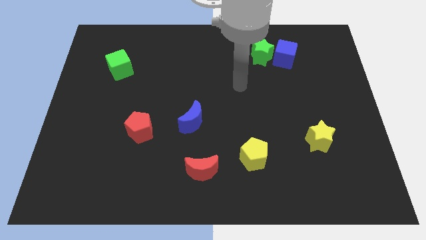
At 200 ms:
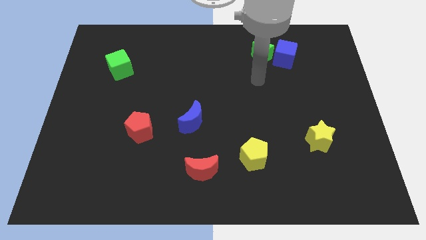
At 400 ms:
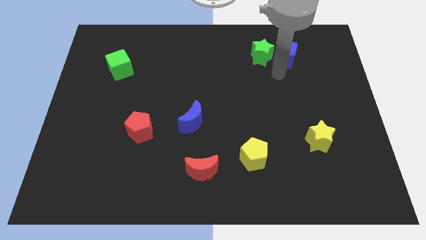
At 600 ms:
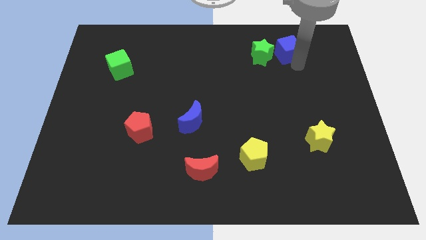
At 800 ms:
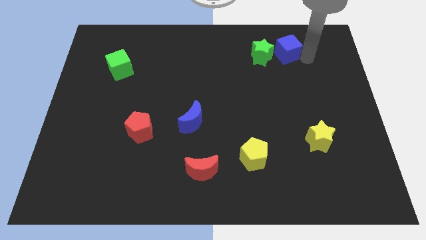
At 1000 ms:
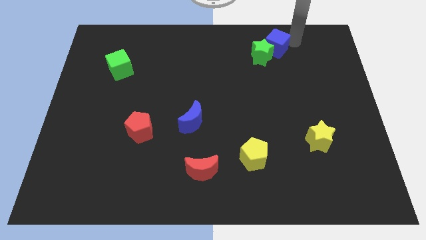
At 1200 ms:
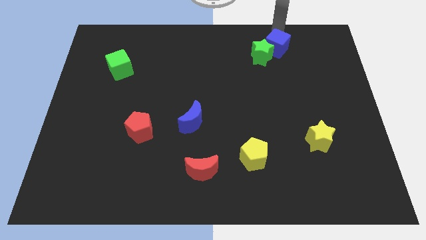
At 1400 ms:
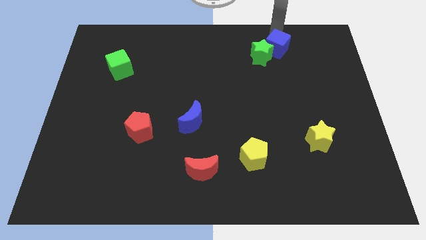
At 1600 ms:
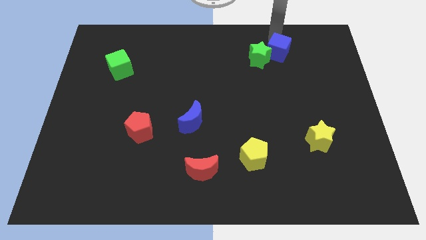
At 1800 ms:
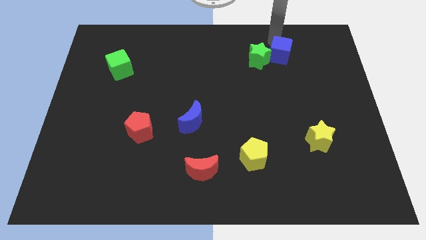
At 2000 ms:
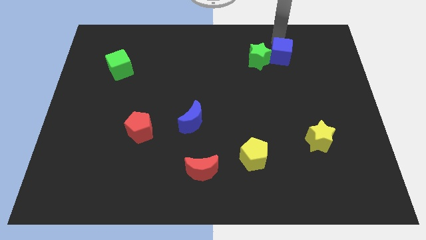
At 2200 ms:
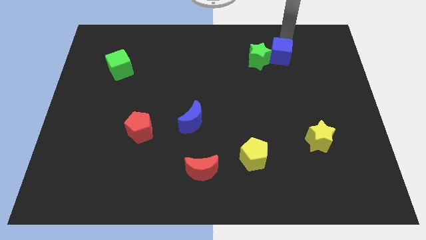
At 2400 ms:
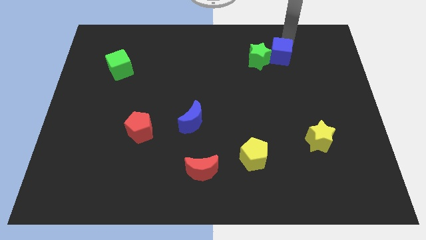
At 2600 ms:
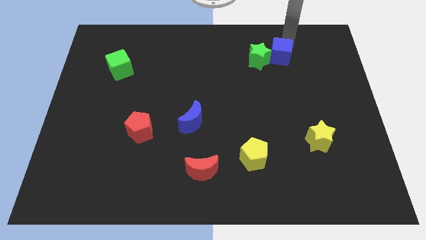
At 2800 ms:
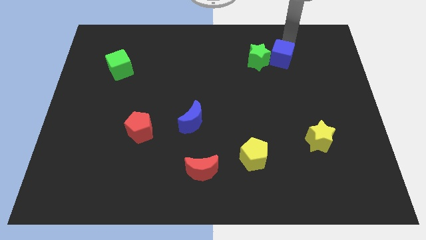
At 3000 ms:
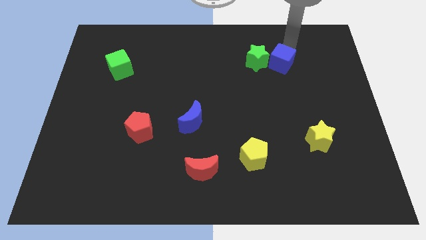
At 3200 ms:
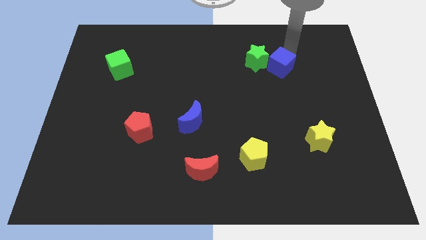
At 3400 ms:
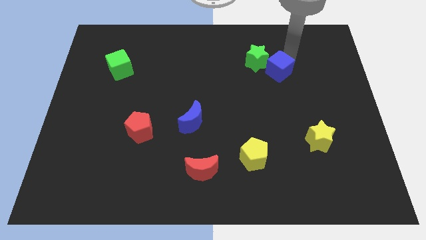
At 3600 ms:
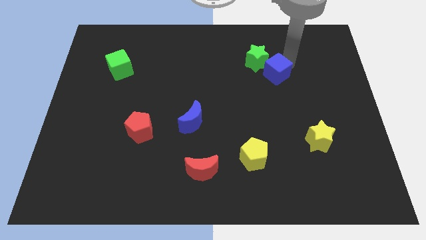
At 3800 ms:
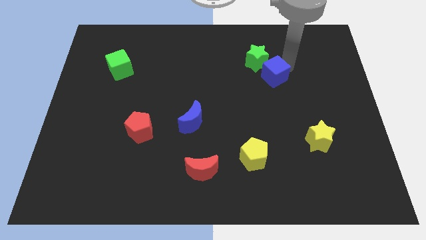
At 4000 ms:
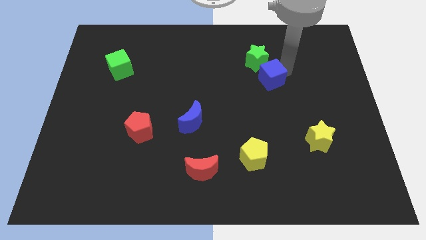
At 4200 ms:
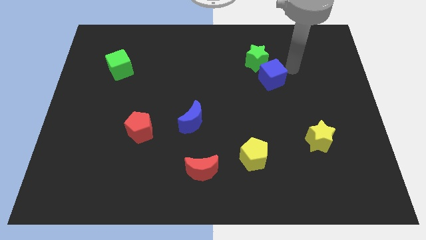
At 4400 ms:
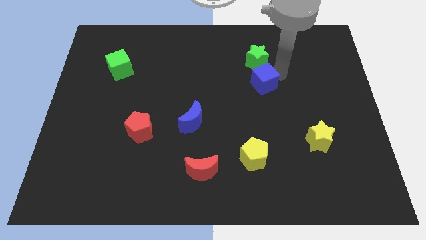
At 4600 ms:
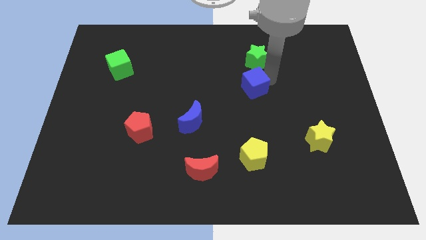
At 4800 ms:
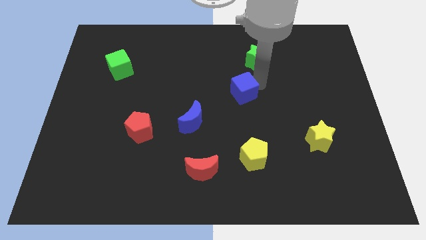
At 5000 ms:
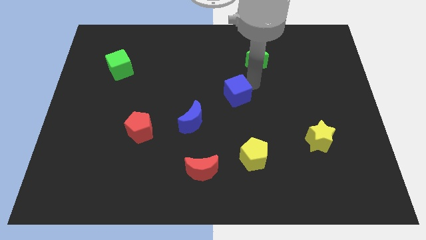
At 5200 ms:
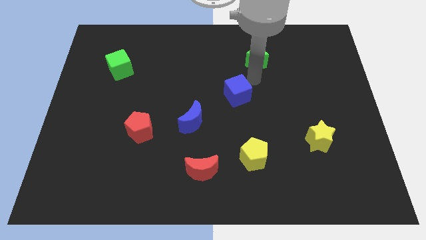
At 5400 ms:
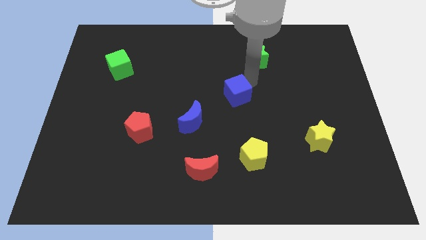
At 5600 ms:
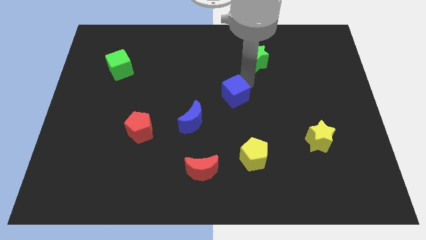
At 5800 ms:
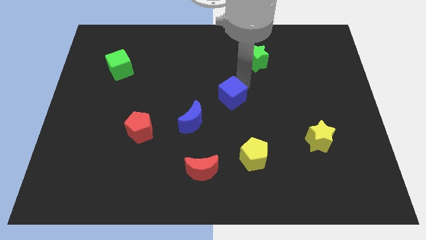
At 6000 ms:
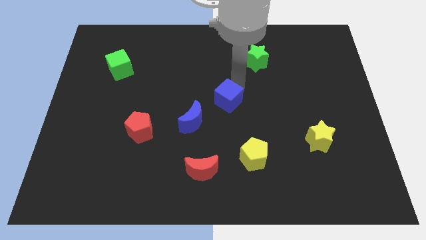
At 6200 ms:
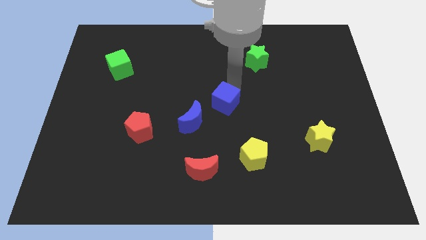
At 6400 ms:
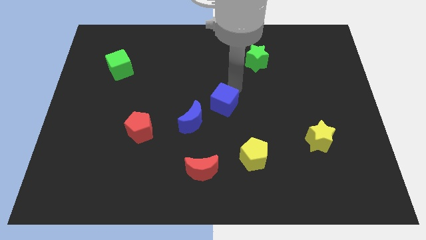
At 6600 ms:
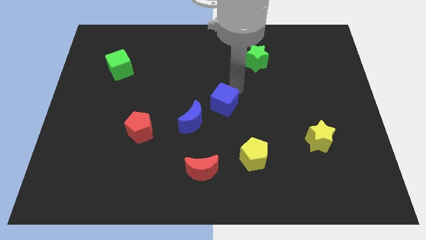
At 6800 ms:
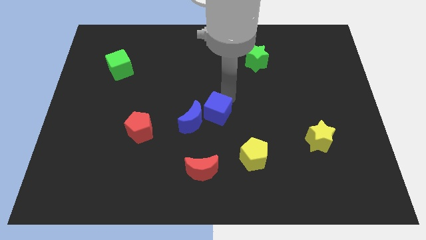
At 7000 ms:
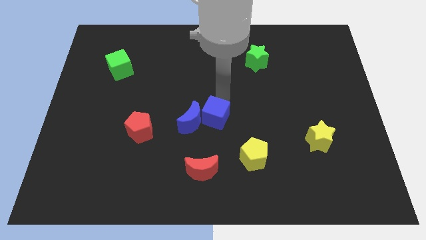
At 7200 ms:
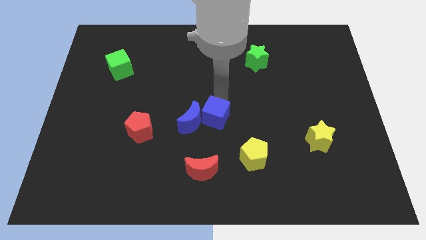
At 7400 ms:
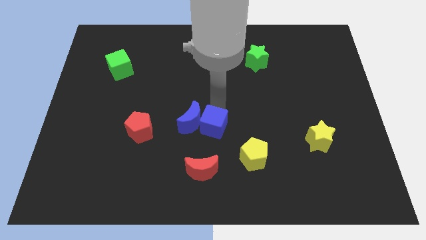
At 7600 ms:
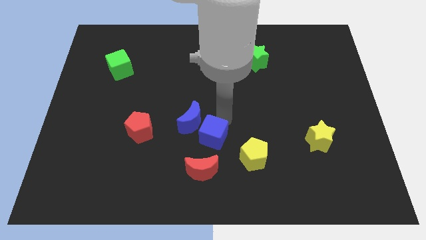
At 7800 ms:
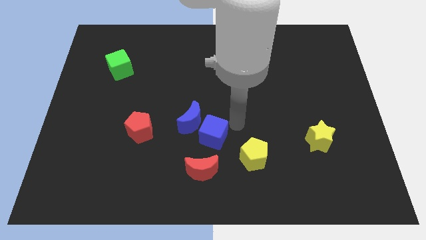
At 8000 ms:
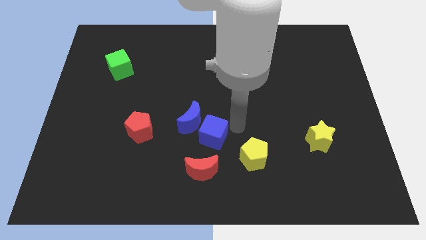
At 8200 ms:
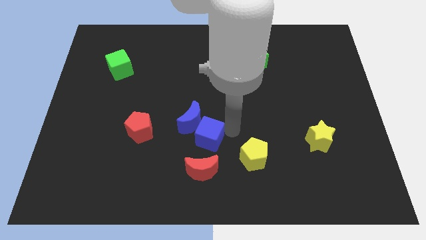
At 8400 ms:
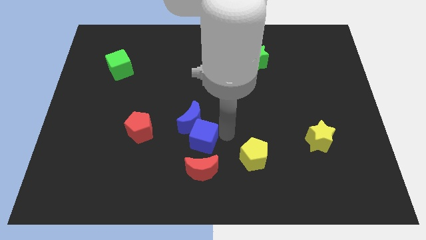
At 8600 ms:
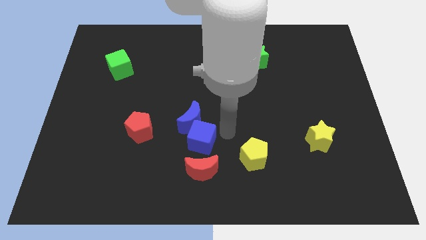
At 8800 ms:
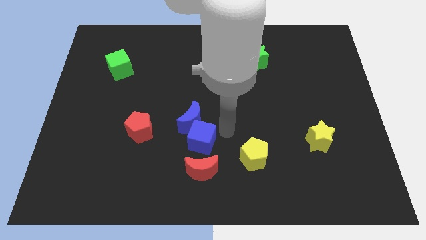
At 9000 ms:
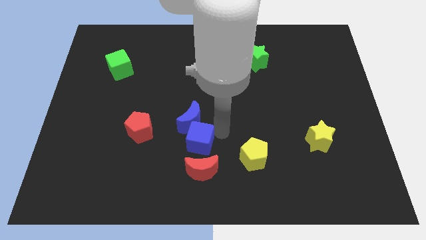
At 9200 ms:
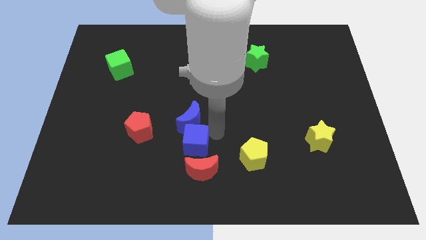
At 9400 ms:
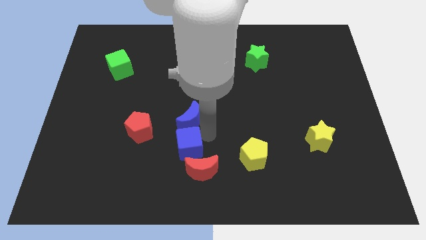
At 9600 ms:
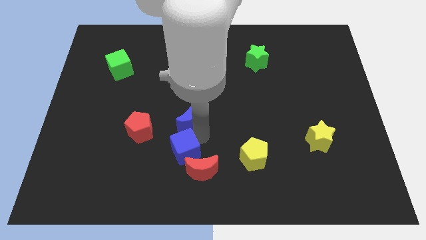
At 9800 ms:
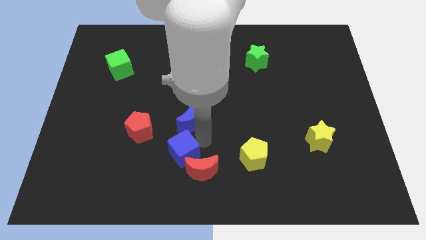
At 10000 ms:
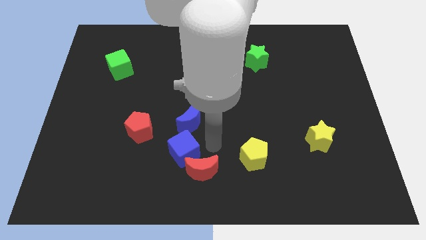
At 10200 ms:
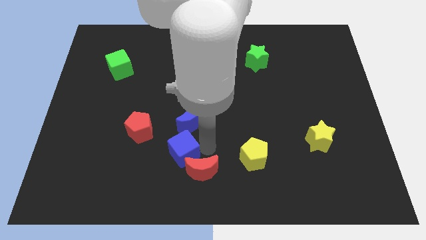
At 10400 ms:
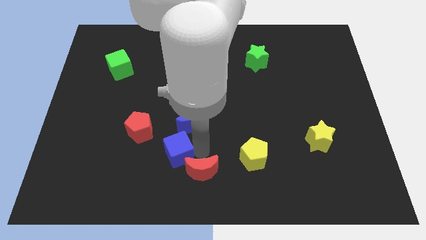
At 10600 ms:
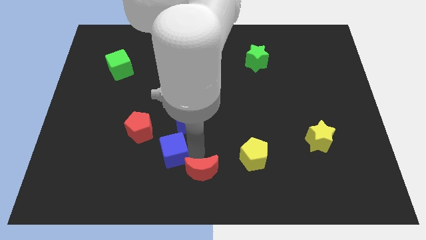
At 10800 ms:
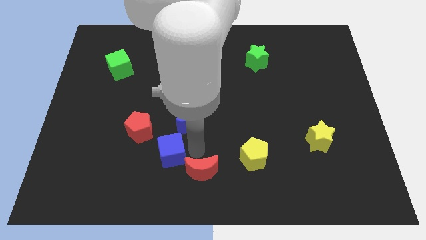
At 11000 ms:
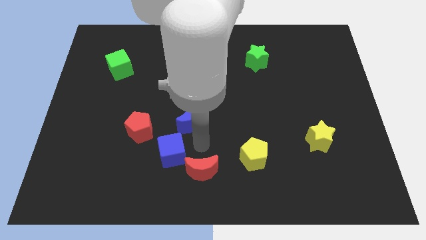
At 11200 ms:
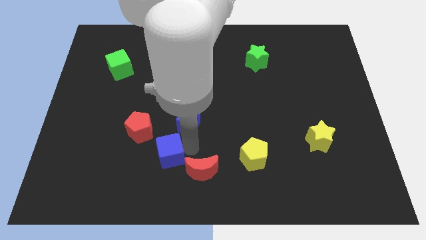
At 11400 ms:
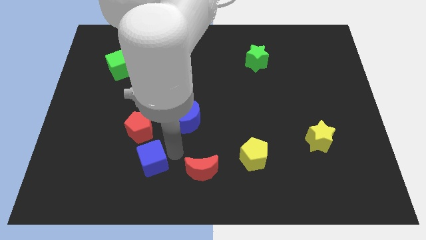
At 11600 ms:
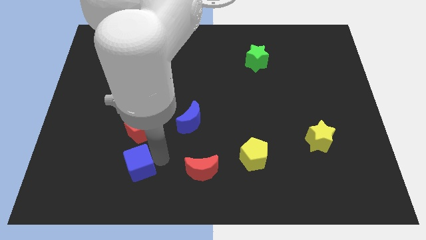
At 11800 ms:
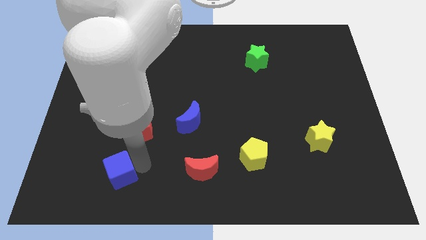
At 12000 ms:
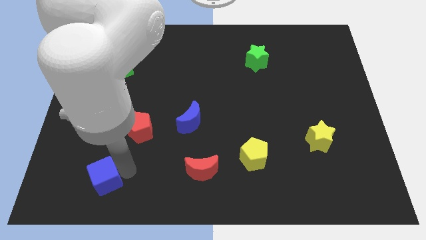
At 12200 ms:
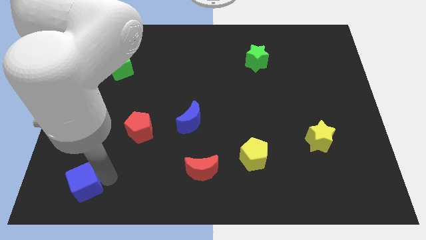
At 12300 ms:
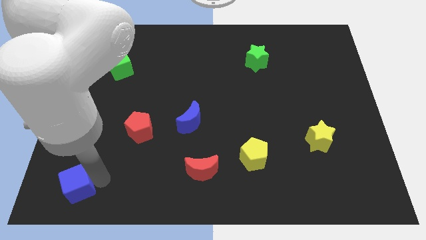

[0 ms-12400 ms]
move the blue cube to the lower left corner
